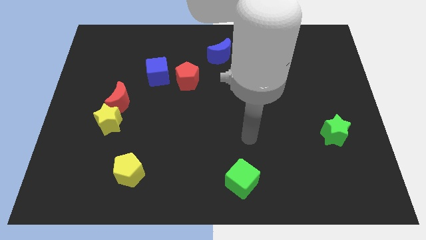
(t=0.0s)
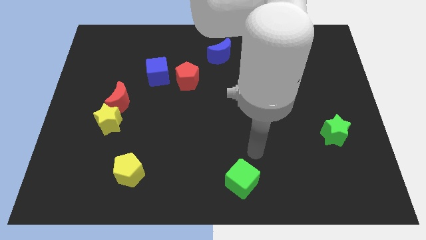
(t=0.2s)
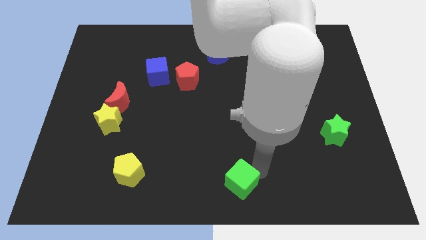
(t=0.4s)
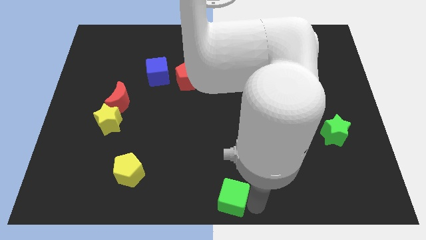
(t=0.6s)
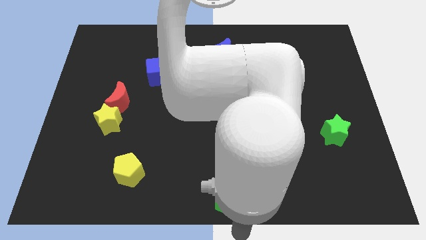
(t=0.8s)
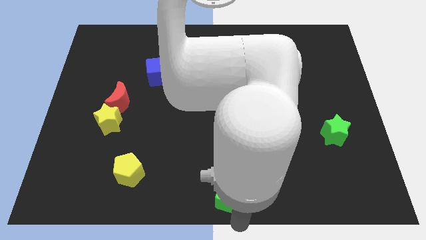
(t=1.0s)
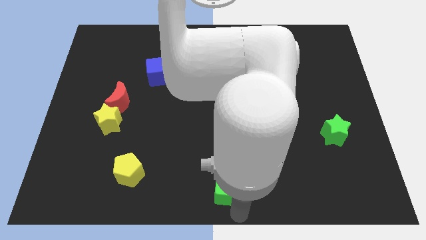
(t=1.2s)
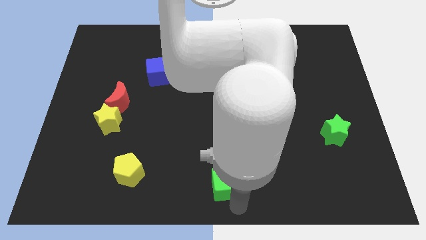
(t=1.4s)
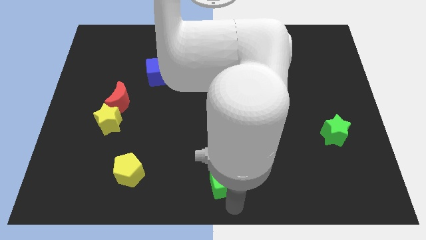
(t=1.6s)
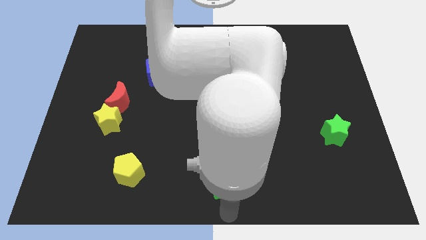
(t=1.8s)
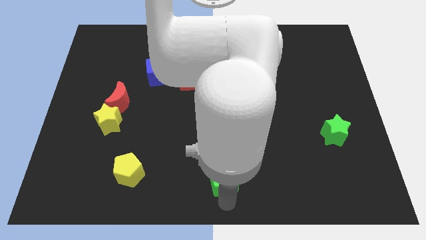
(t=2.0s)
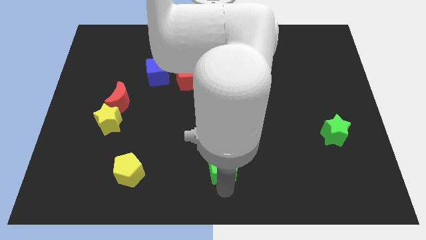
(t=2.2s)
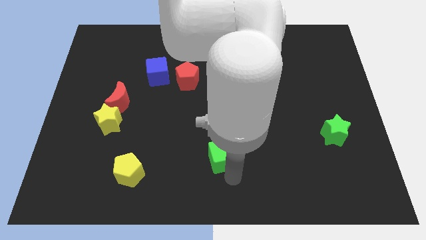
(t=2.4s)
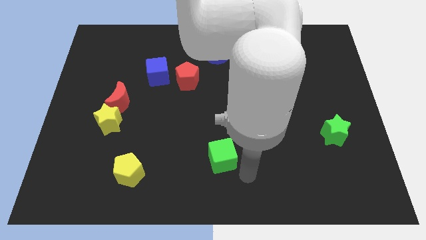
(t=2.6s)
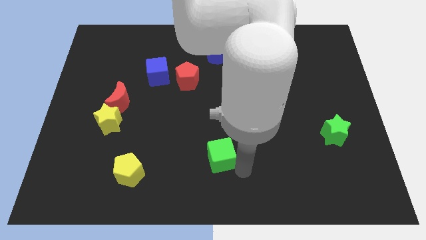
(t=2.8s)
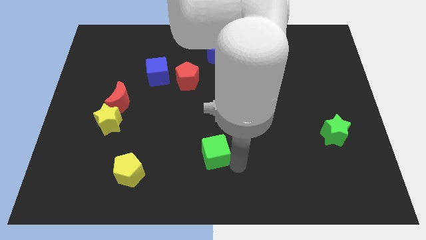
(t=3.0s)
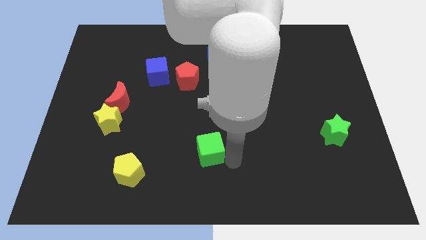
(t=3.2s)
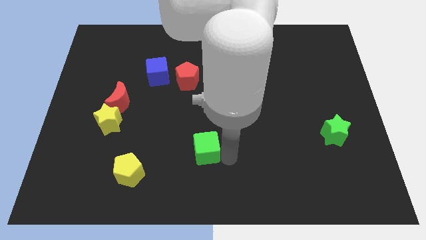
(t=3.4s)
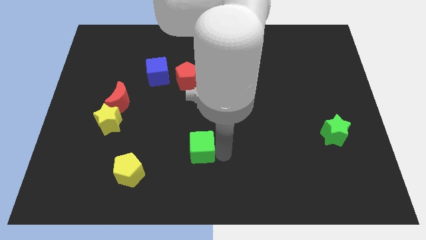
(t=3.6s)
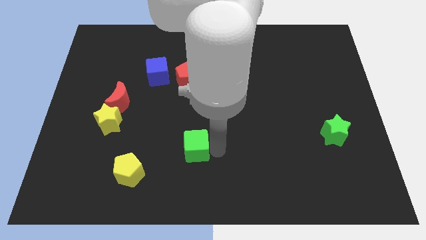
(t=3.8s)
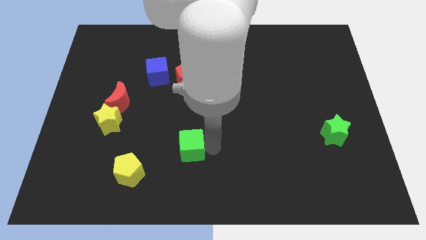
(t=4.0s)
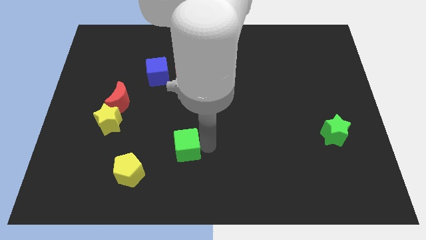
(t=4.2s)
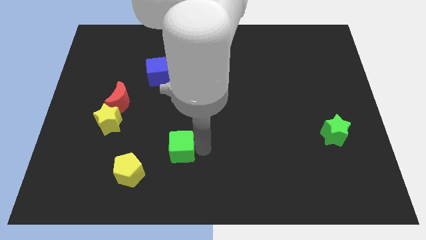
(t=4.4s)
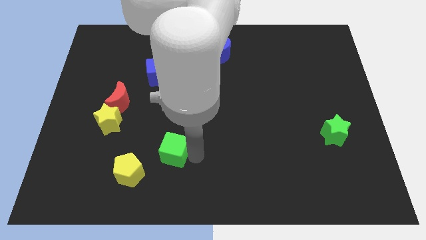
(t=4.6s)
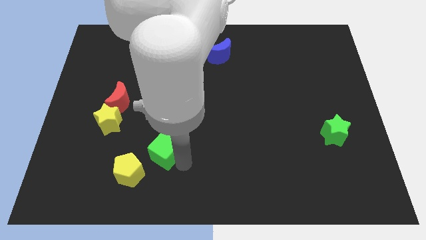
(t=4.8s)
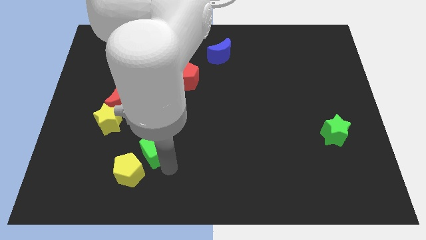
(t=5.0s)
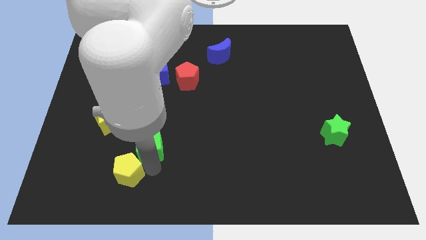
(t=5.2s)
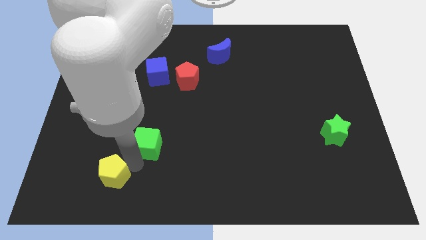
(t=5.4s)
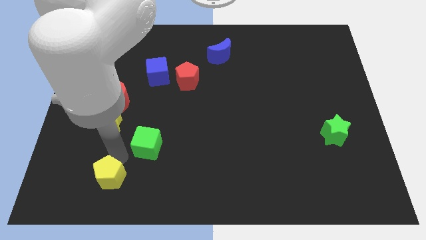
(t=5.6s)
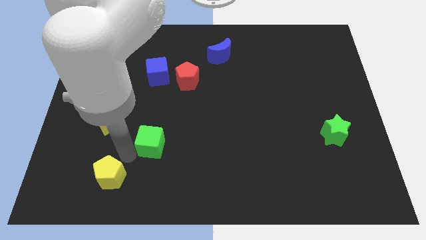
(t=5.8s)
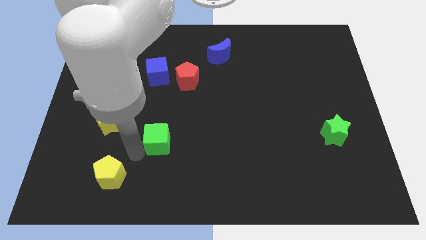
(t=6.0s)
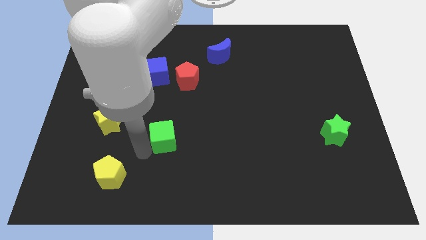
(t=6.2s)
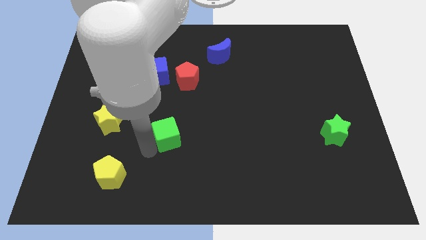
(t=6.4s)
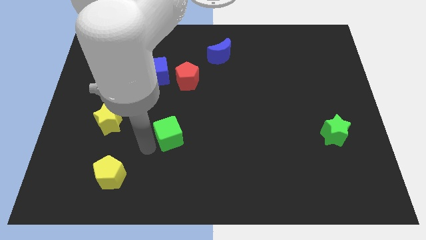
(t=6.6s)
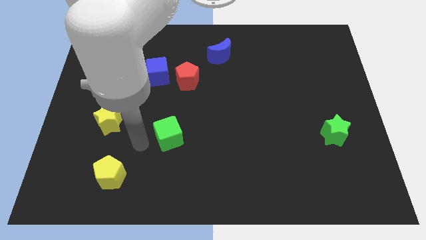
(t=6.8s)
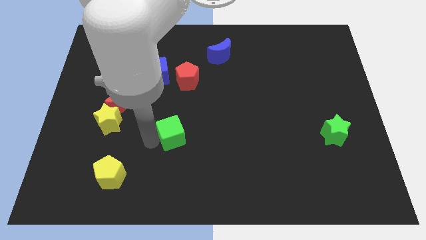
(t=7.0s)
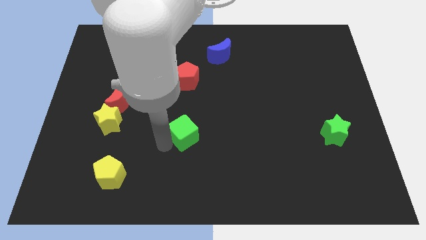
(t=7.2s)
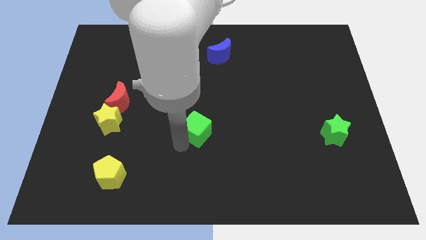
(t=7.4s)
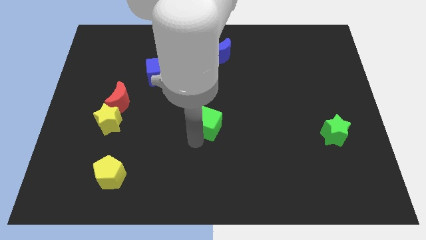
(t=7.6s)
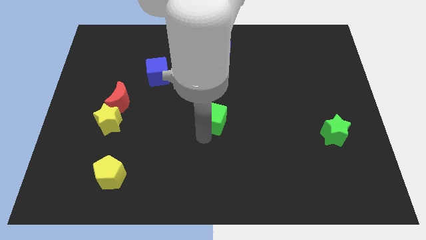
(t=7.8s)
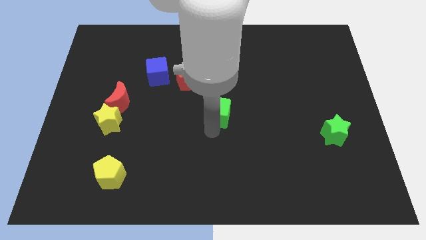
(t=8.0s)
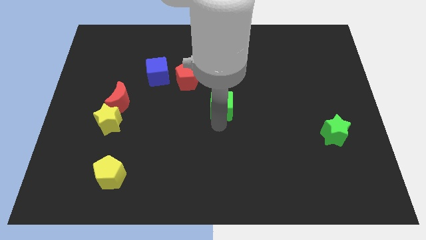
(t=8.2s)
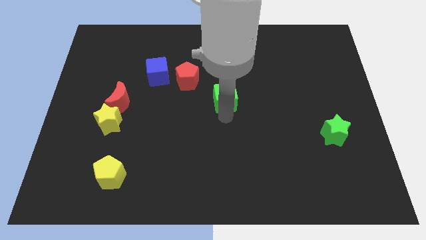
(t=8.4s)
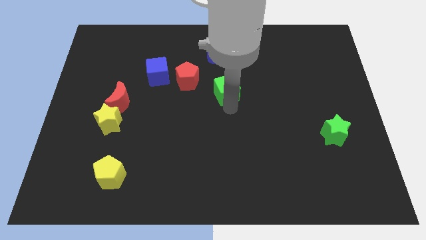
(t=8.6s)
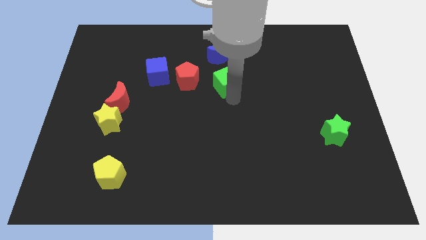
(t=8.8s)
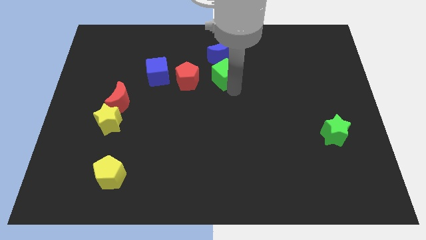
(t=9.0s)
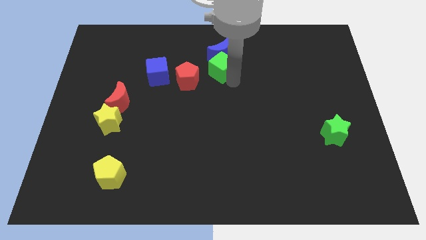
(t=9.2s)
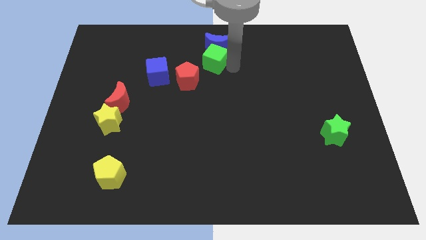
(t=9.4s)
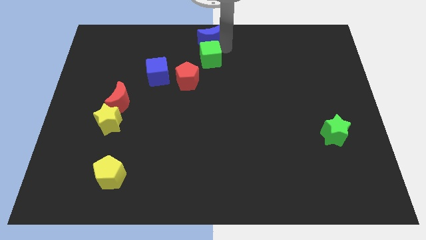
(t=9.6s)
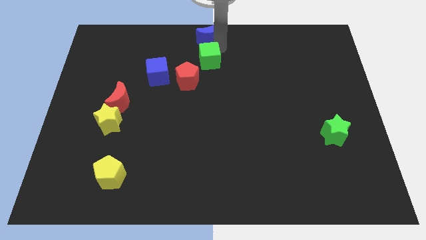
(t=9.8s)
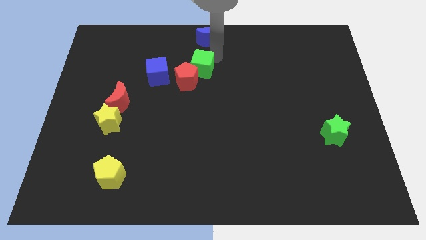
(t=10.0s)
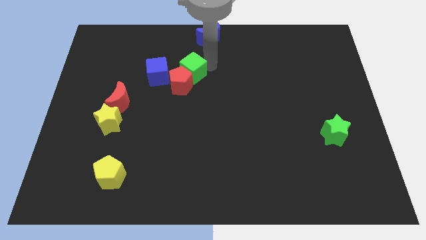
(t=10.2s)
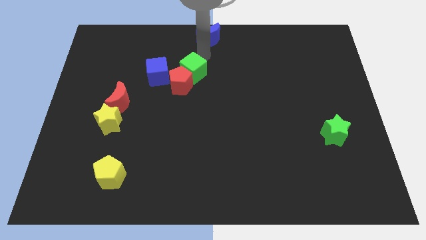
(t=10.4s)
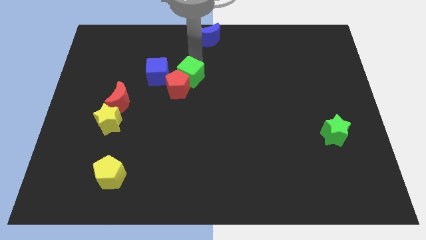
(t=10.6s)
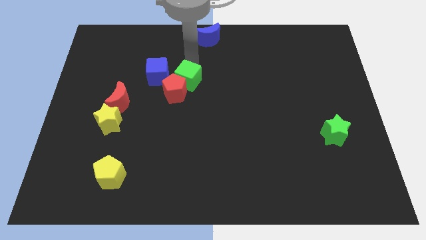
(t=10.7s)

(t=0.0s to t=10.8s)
move the green cube upwards and to the left

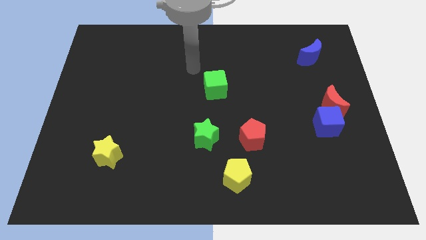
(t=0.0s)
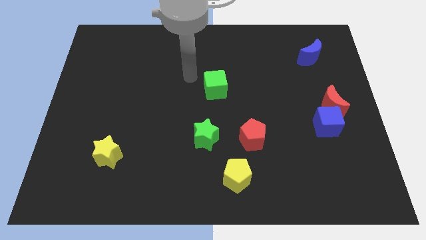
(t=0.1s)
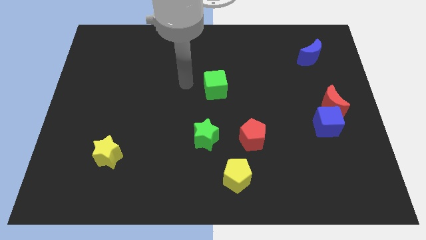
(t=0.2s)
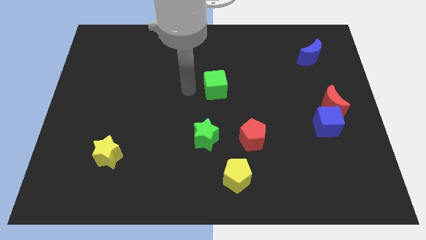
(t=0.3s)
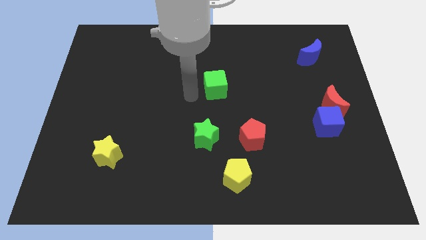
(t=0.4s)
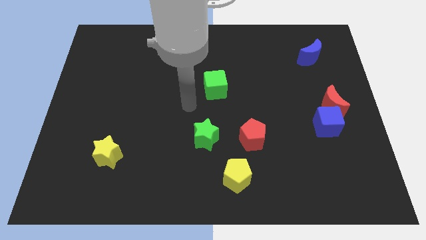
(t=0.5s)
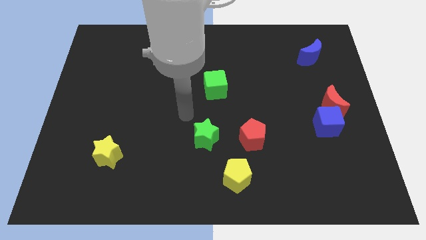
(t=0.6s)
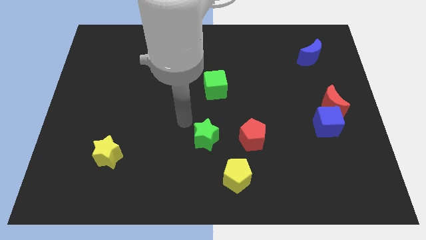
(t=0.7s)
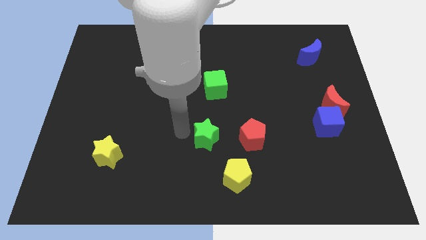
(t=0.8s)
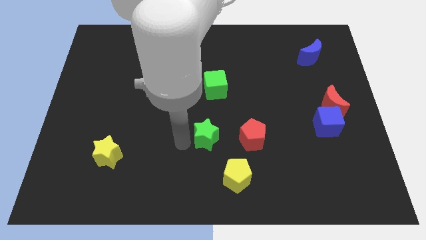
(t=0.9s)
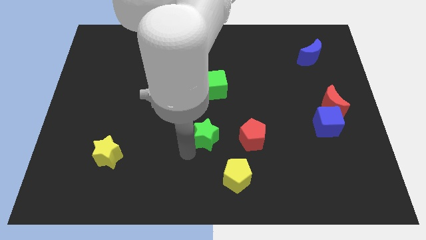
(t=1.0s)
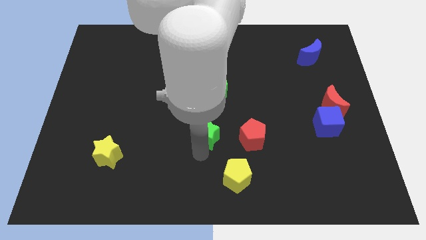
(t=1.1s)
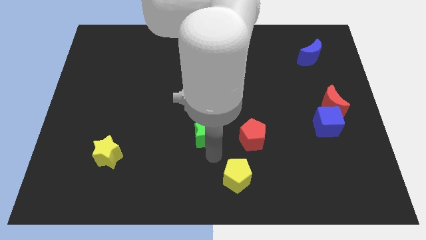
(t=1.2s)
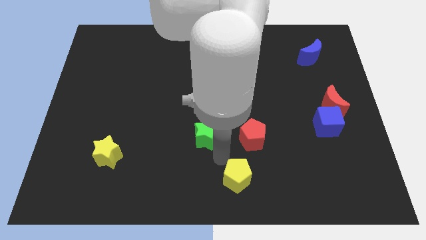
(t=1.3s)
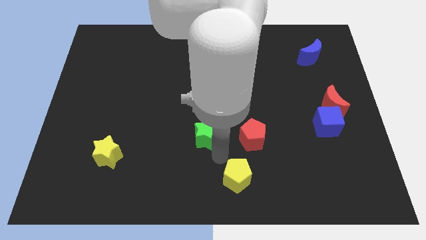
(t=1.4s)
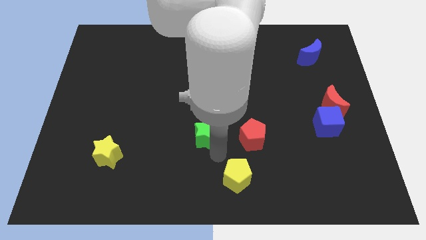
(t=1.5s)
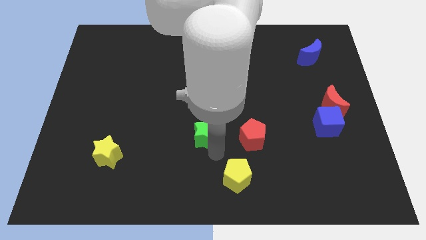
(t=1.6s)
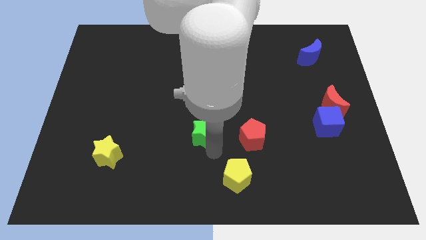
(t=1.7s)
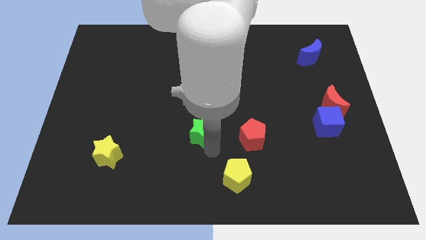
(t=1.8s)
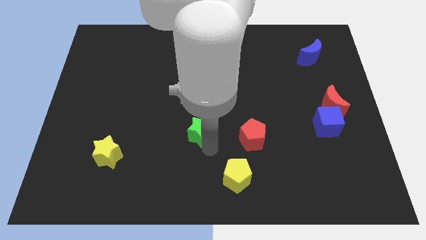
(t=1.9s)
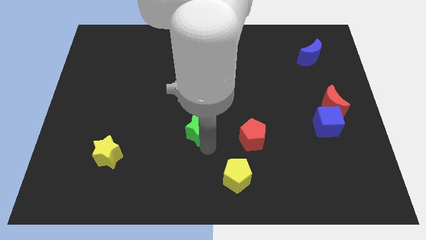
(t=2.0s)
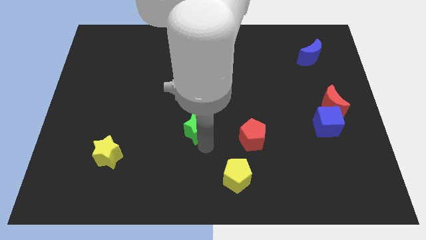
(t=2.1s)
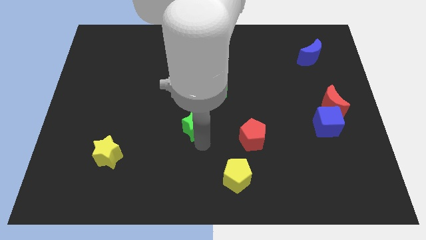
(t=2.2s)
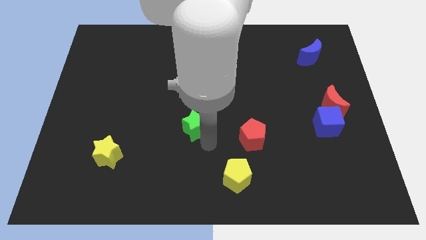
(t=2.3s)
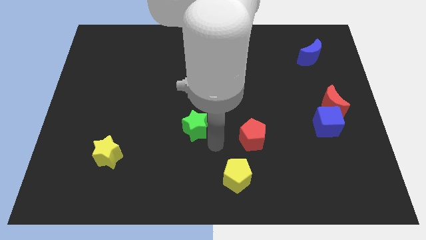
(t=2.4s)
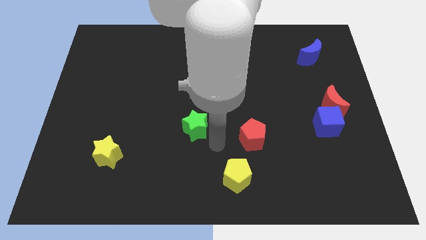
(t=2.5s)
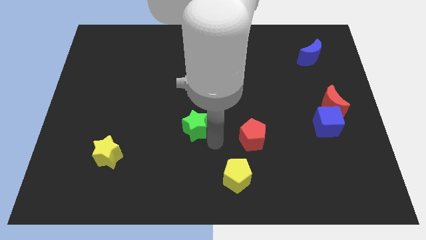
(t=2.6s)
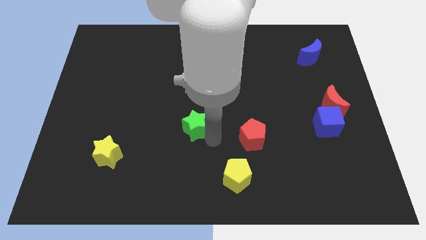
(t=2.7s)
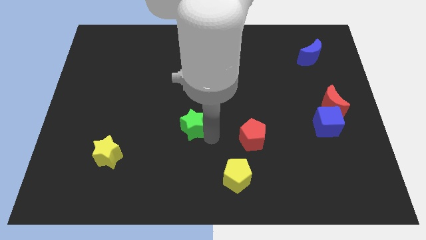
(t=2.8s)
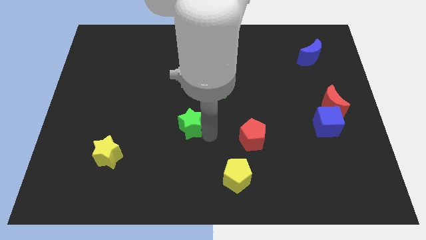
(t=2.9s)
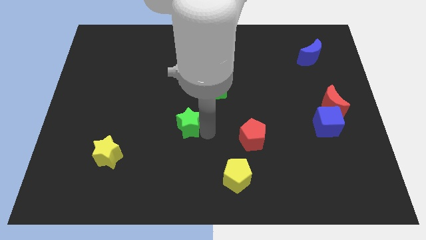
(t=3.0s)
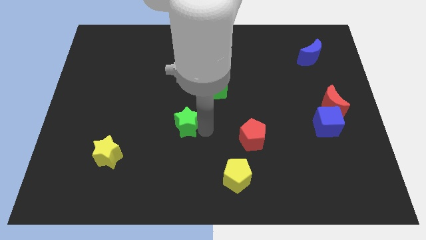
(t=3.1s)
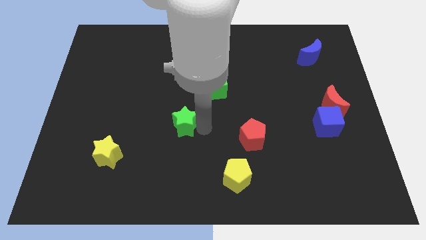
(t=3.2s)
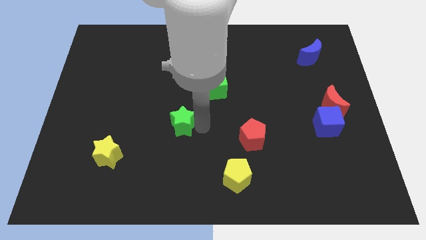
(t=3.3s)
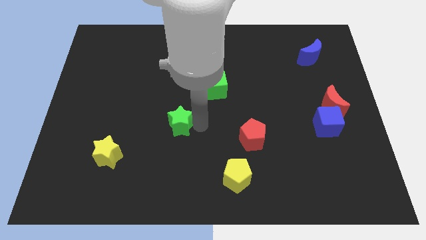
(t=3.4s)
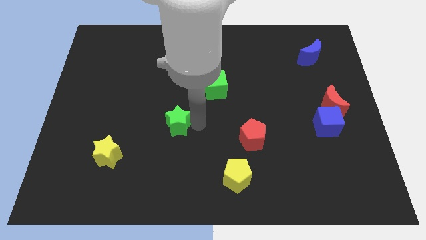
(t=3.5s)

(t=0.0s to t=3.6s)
slightly move the green star up and left
